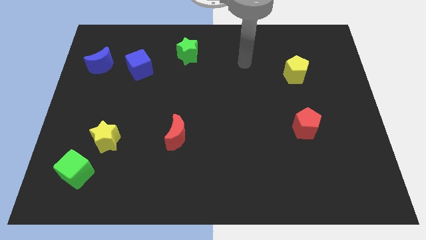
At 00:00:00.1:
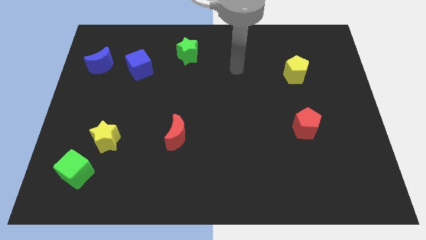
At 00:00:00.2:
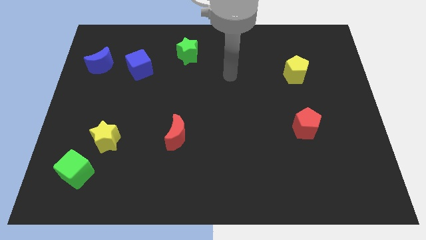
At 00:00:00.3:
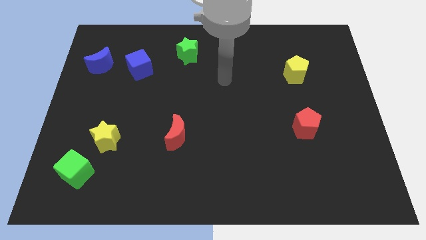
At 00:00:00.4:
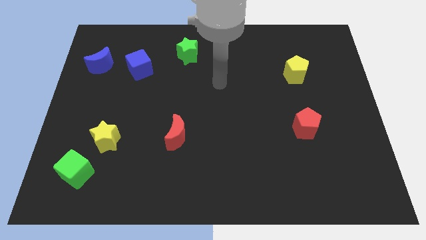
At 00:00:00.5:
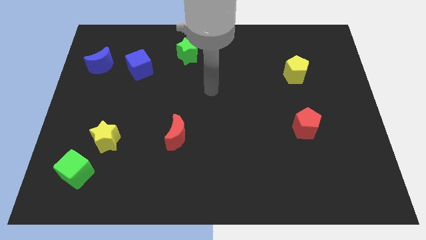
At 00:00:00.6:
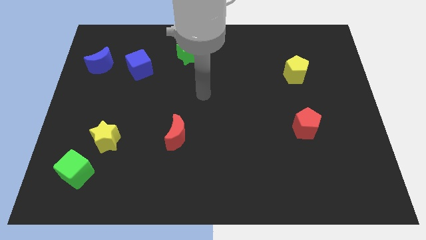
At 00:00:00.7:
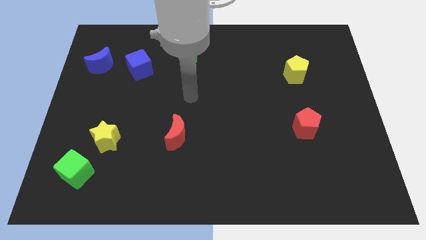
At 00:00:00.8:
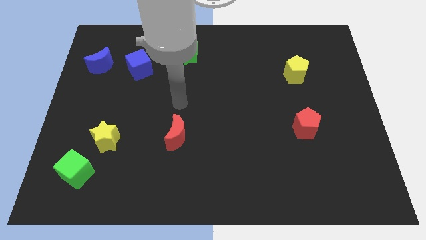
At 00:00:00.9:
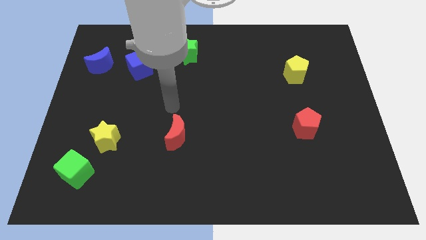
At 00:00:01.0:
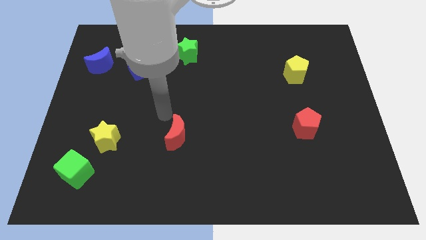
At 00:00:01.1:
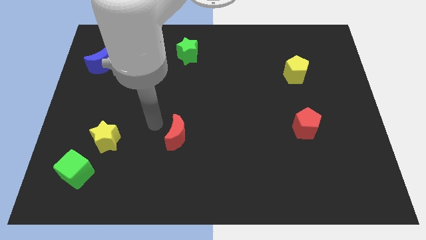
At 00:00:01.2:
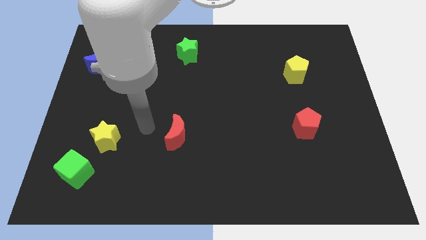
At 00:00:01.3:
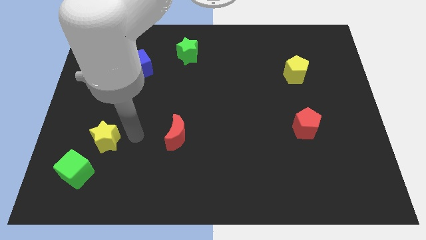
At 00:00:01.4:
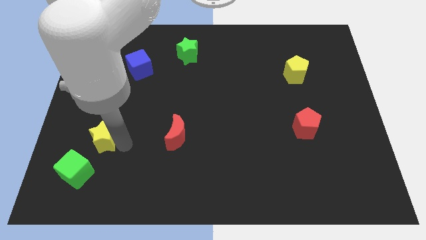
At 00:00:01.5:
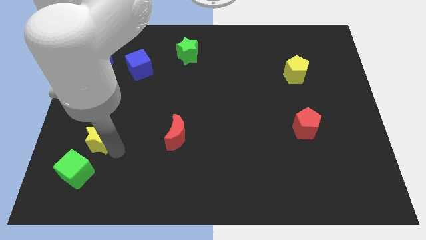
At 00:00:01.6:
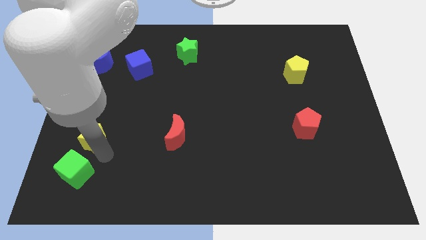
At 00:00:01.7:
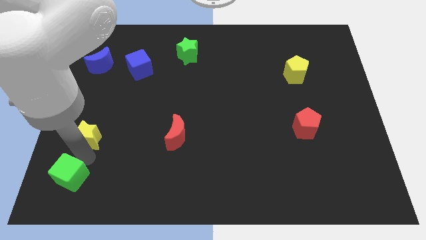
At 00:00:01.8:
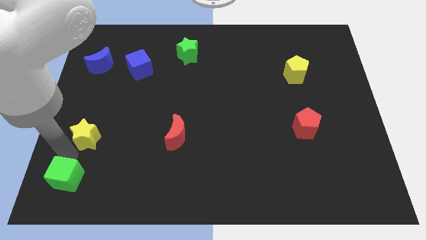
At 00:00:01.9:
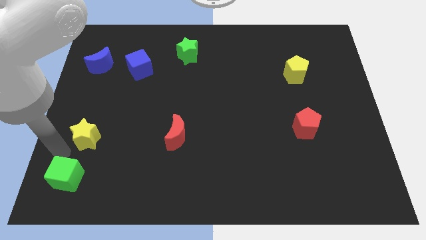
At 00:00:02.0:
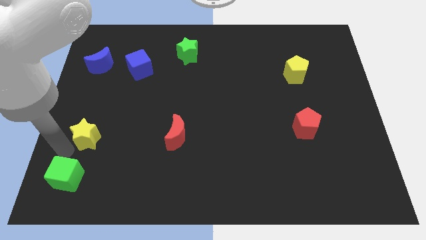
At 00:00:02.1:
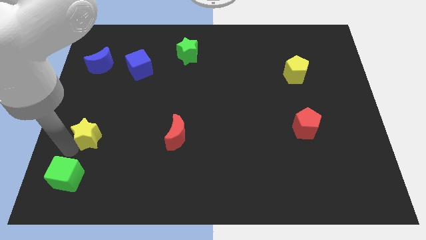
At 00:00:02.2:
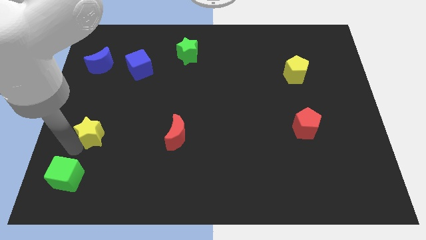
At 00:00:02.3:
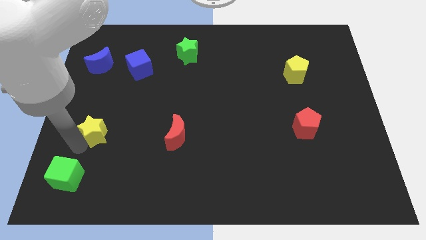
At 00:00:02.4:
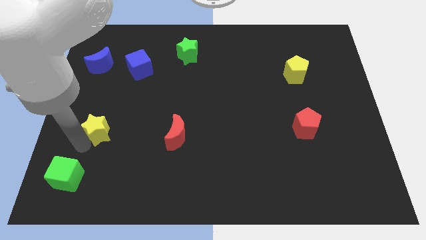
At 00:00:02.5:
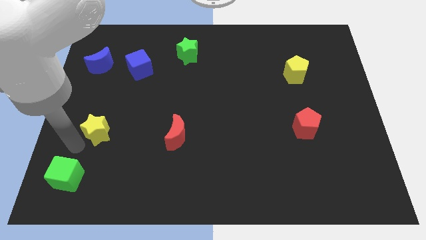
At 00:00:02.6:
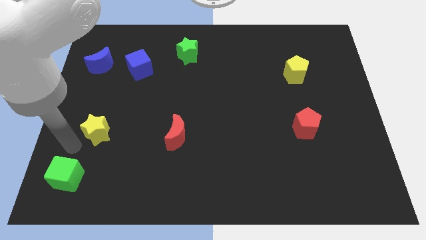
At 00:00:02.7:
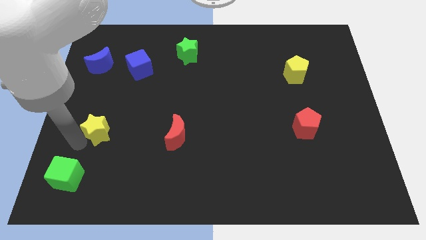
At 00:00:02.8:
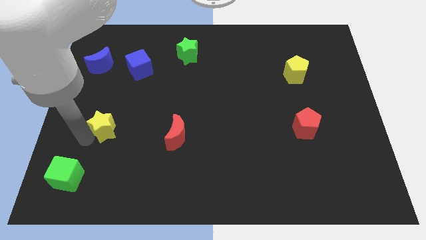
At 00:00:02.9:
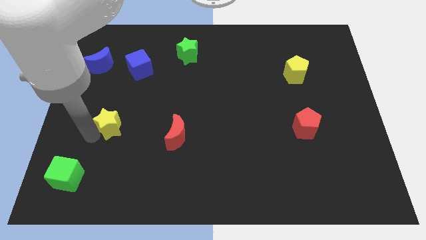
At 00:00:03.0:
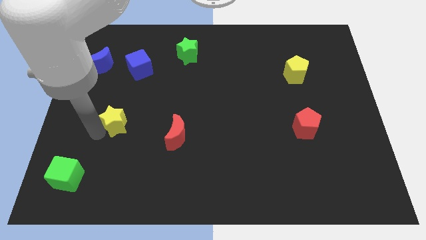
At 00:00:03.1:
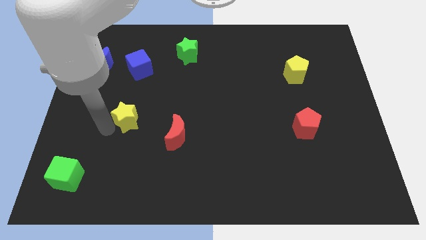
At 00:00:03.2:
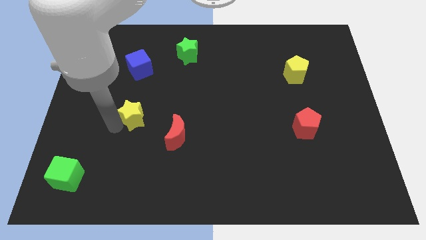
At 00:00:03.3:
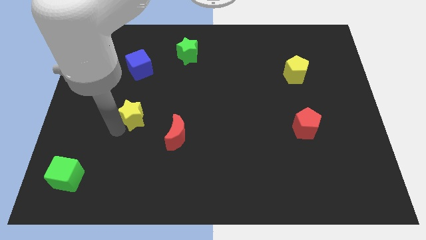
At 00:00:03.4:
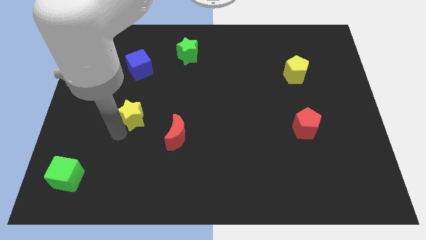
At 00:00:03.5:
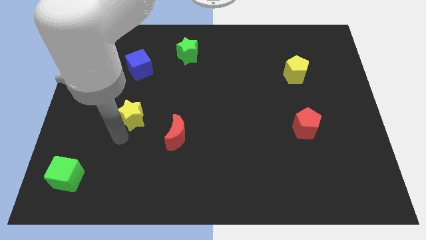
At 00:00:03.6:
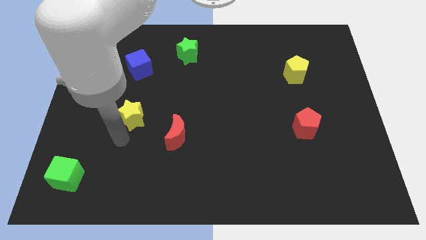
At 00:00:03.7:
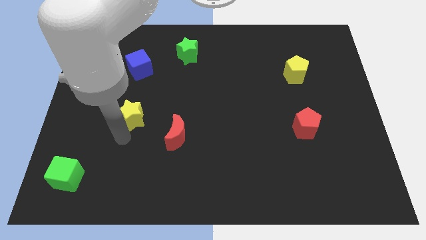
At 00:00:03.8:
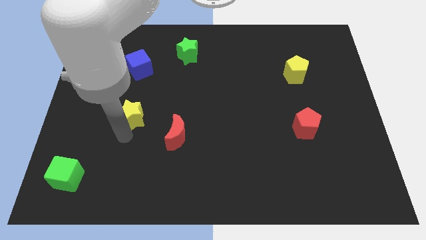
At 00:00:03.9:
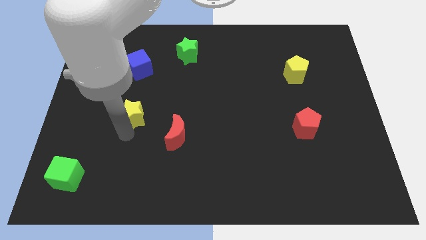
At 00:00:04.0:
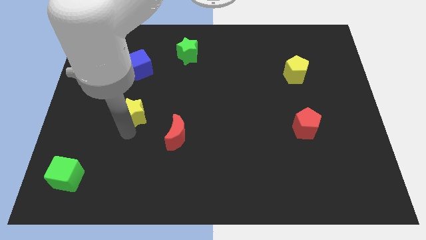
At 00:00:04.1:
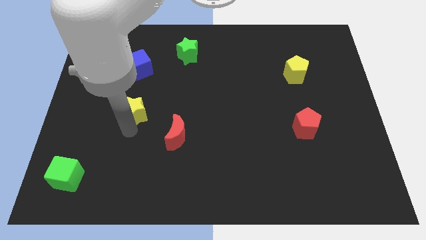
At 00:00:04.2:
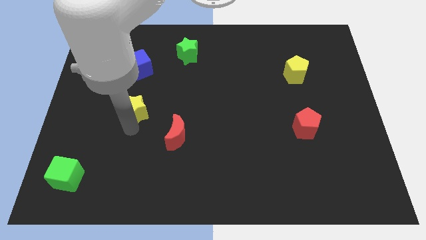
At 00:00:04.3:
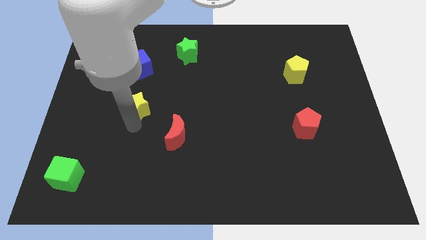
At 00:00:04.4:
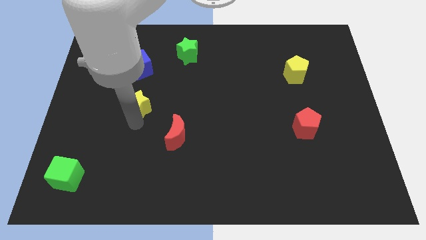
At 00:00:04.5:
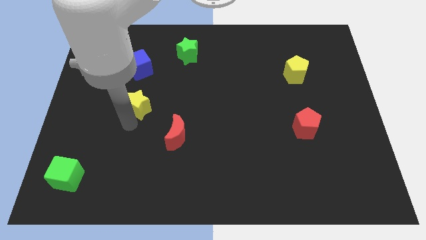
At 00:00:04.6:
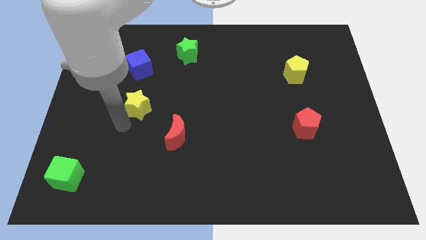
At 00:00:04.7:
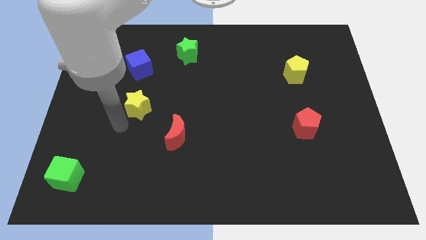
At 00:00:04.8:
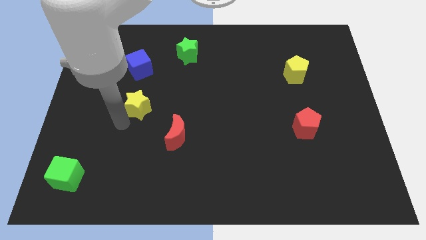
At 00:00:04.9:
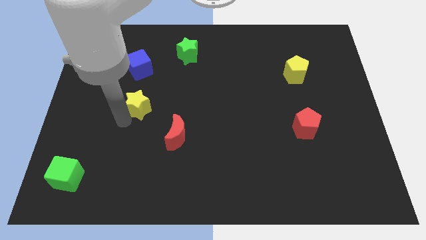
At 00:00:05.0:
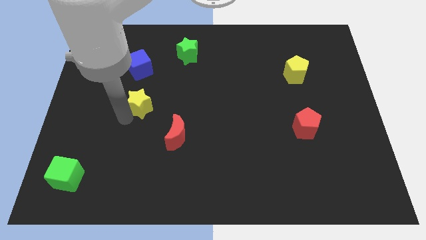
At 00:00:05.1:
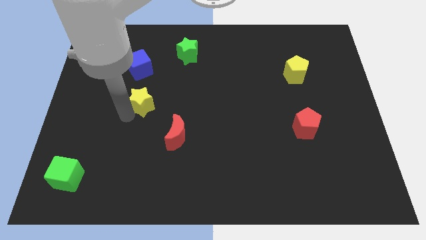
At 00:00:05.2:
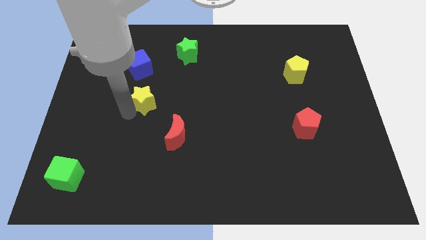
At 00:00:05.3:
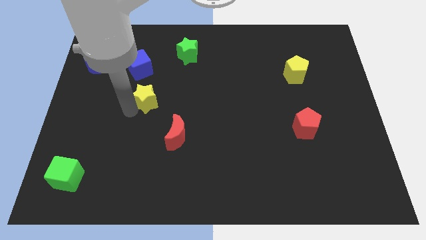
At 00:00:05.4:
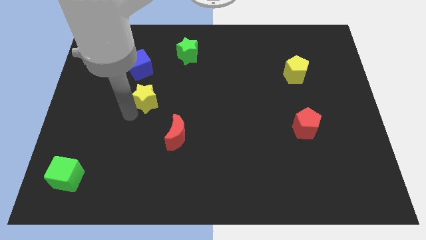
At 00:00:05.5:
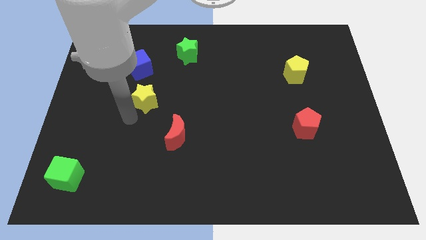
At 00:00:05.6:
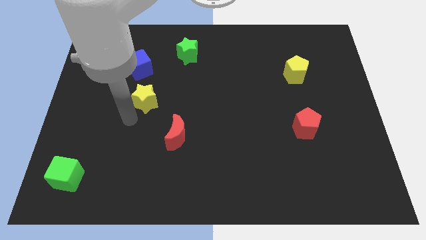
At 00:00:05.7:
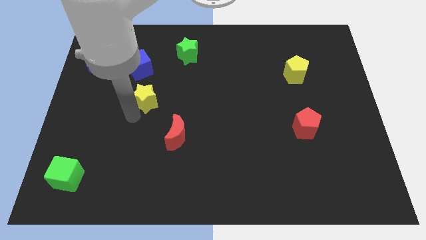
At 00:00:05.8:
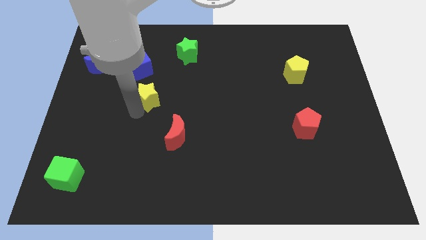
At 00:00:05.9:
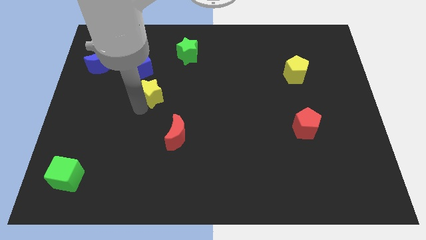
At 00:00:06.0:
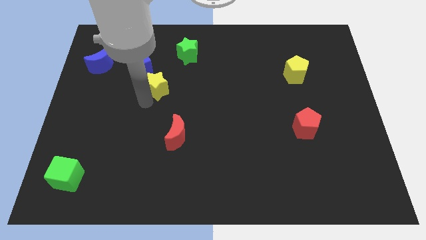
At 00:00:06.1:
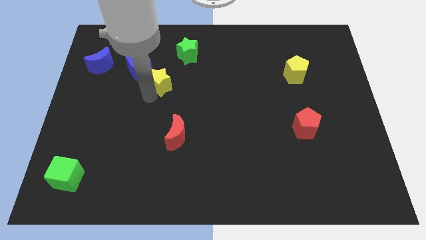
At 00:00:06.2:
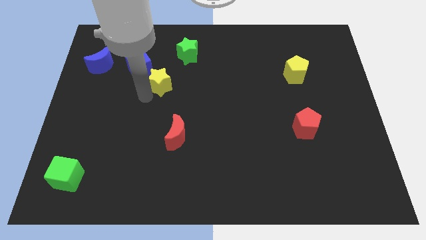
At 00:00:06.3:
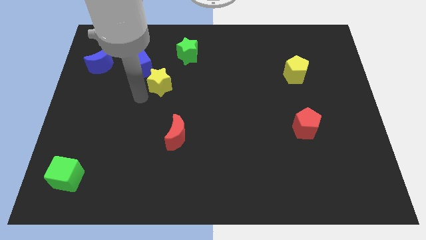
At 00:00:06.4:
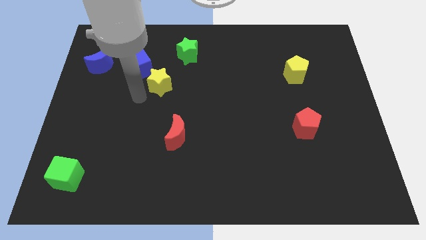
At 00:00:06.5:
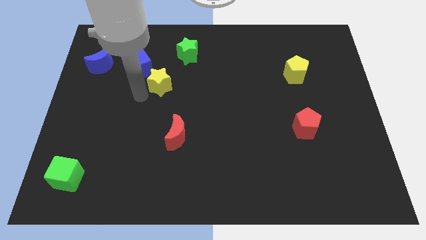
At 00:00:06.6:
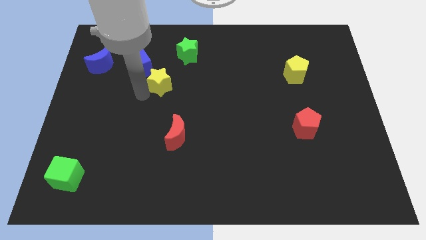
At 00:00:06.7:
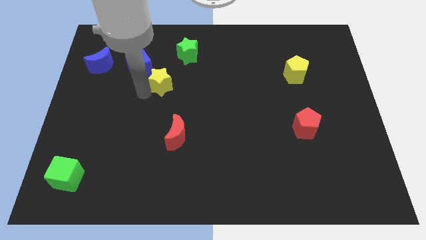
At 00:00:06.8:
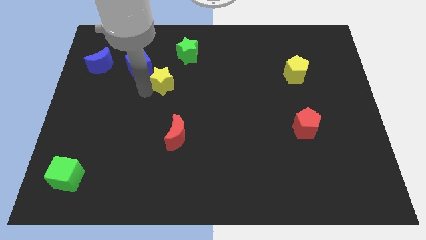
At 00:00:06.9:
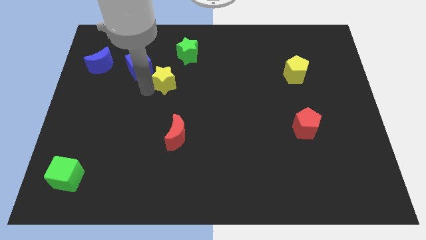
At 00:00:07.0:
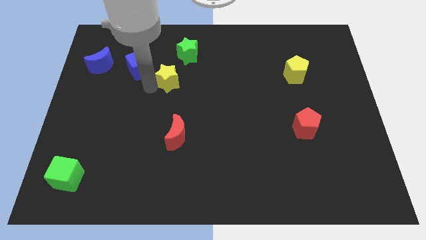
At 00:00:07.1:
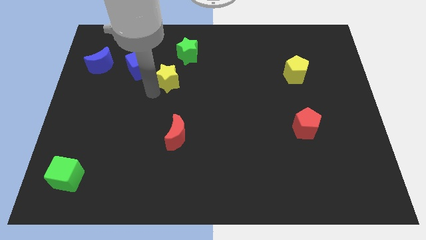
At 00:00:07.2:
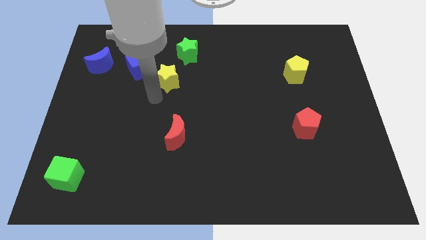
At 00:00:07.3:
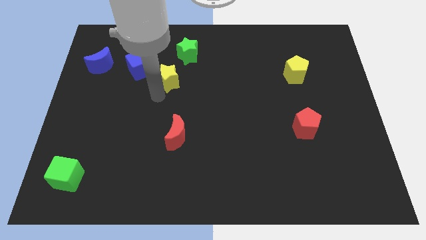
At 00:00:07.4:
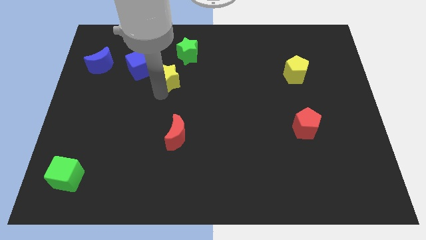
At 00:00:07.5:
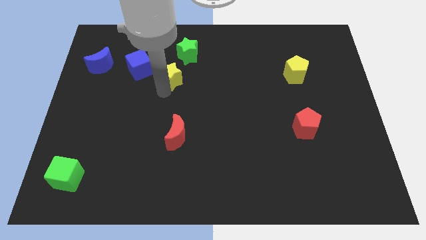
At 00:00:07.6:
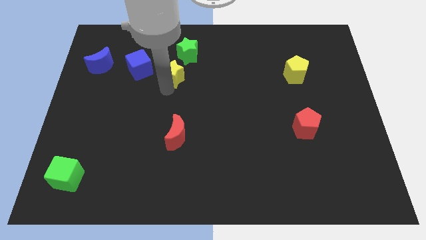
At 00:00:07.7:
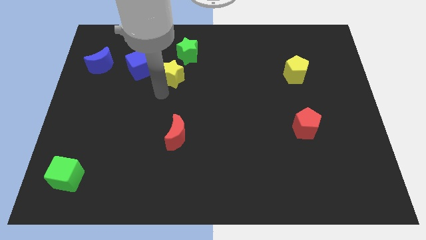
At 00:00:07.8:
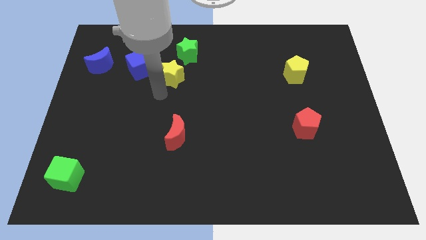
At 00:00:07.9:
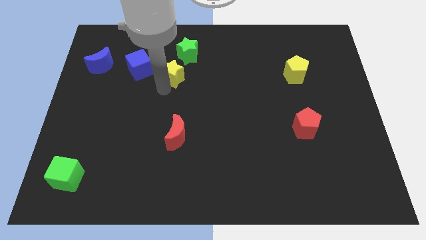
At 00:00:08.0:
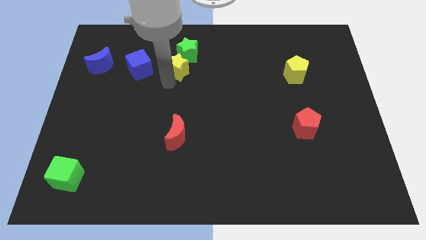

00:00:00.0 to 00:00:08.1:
slide the yellow star towards the green star
